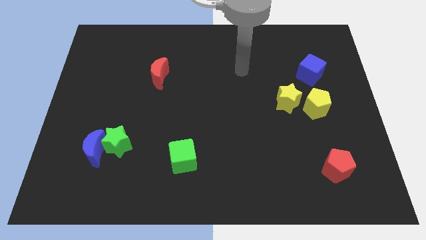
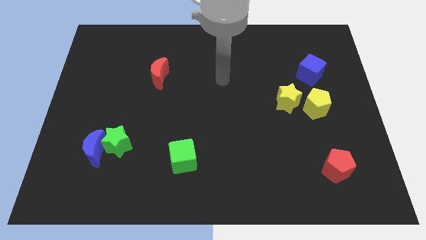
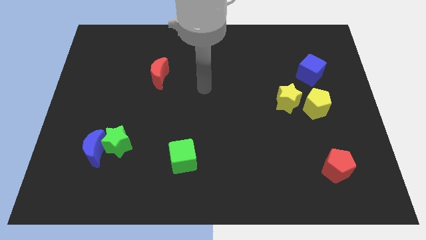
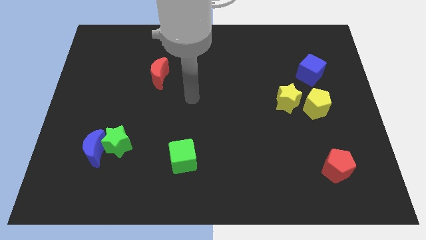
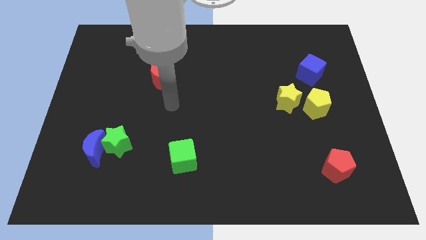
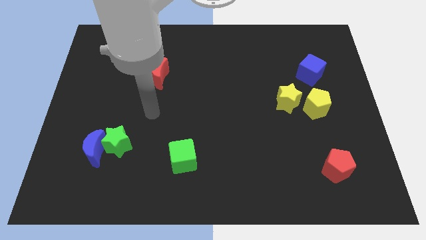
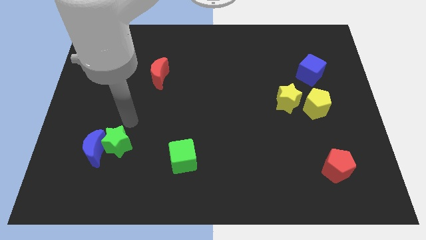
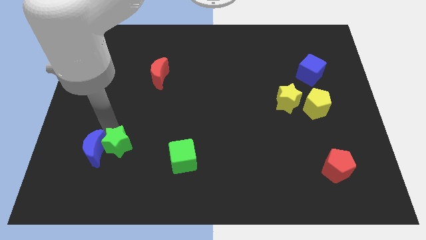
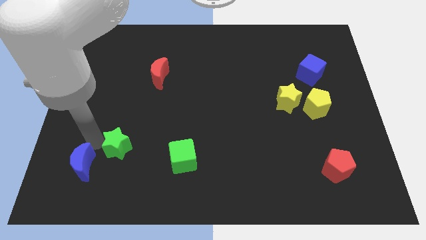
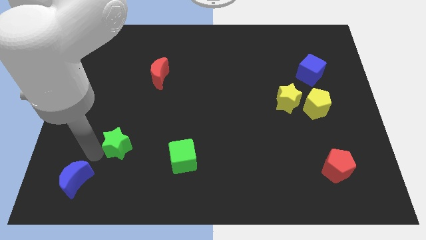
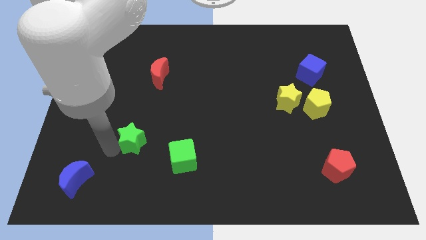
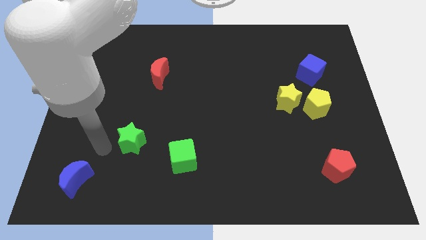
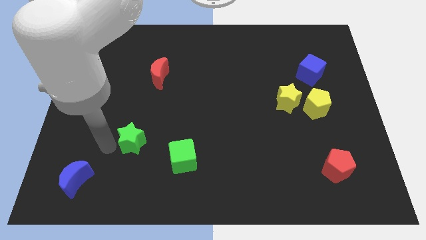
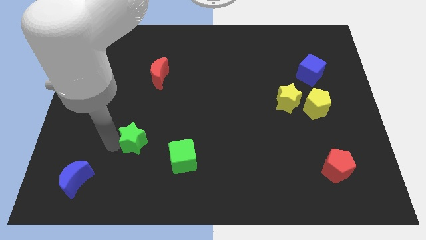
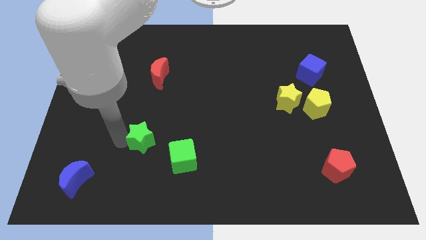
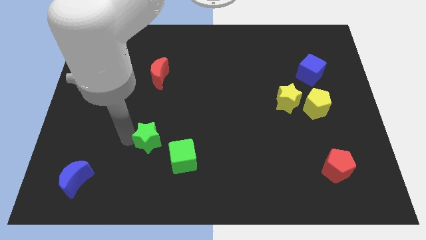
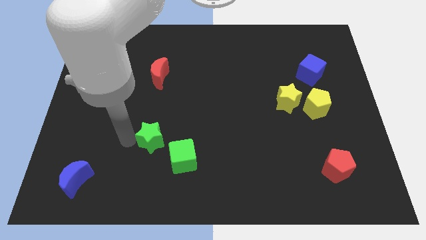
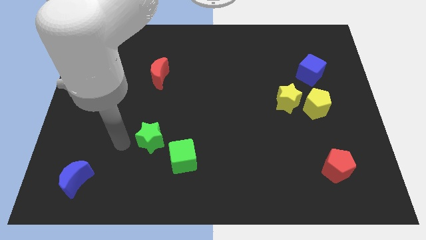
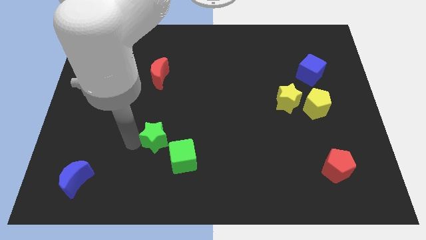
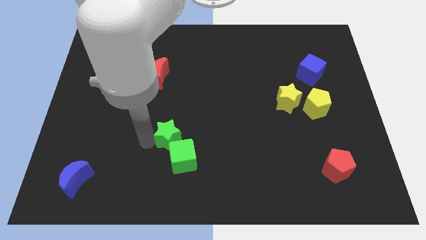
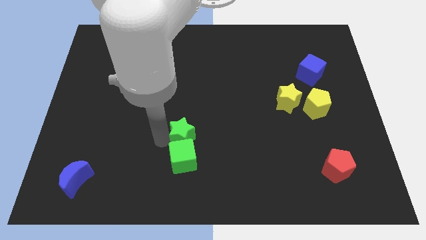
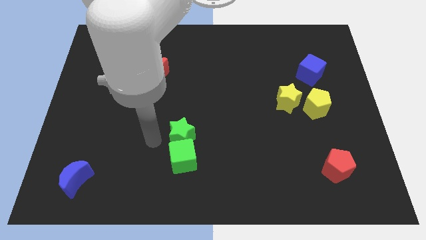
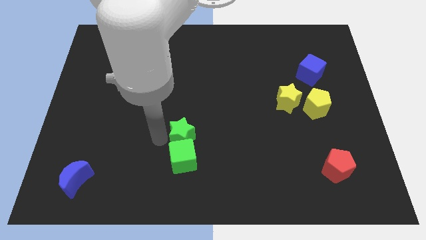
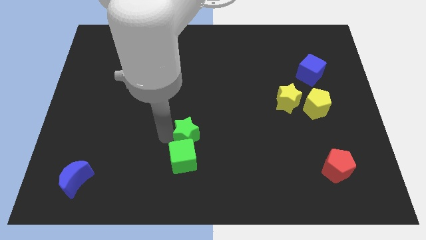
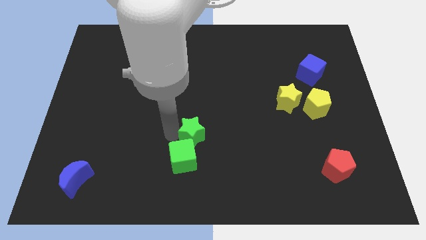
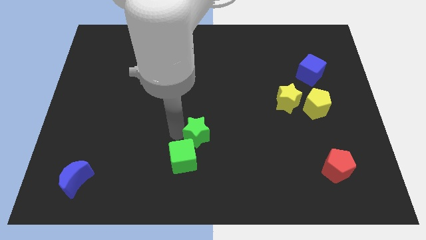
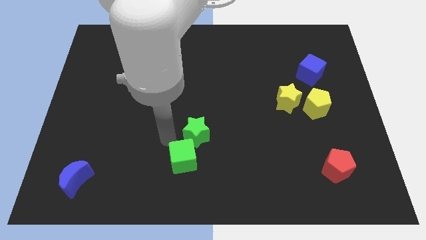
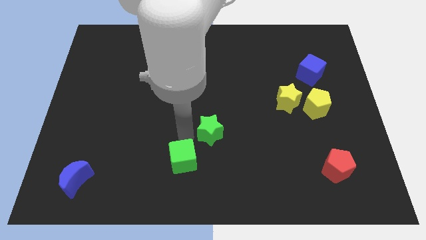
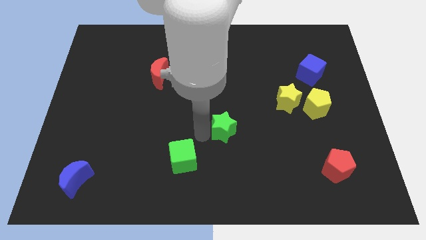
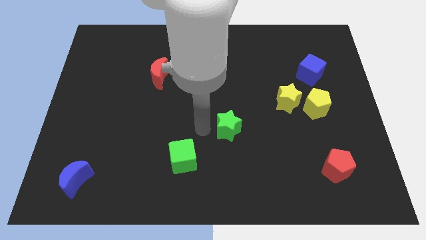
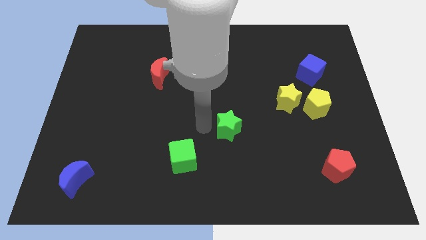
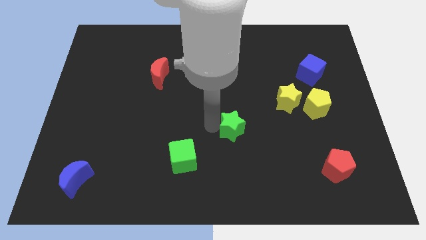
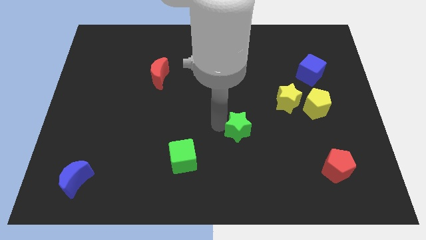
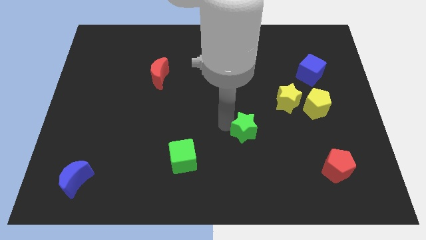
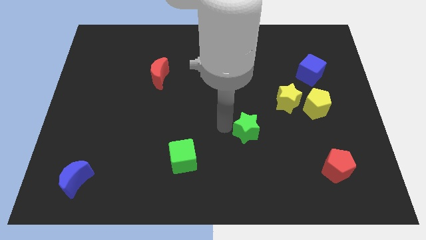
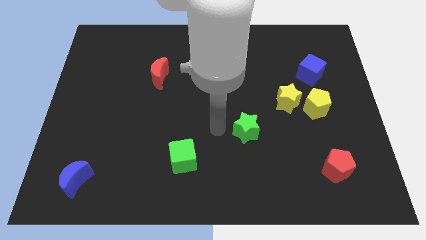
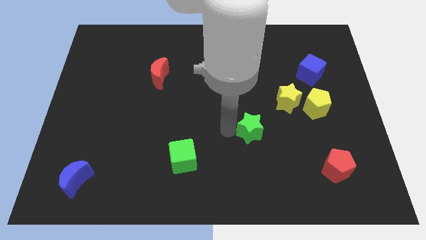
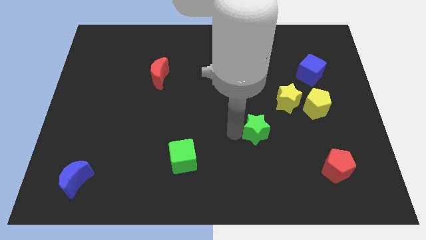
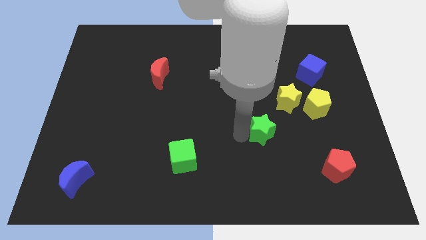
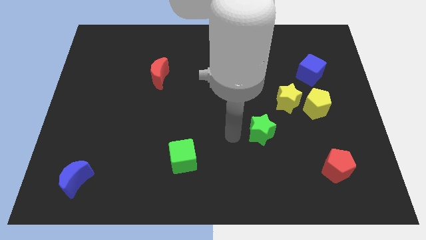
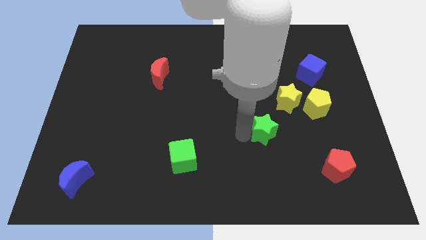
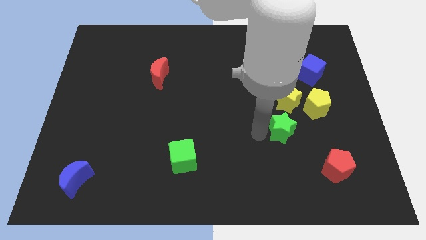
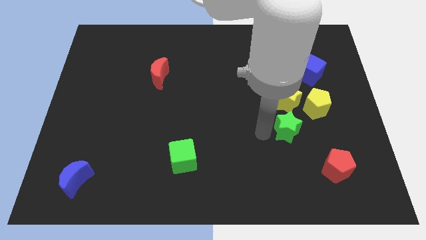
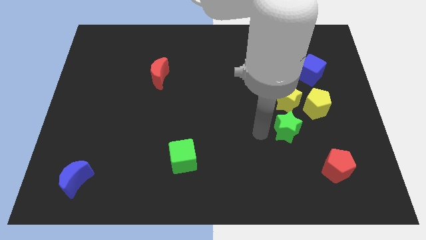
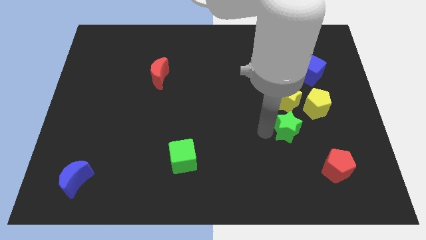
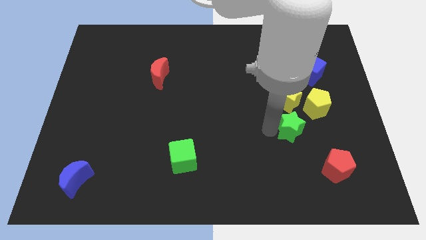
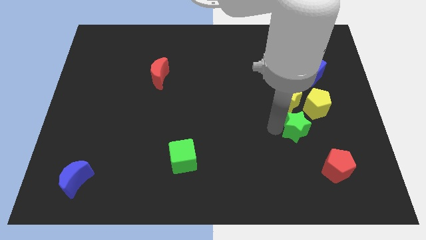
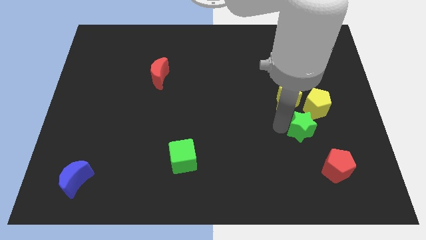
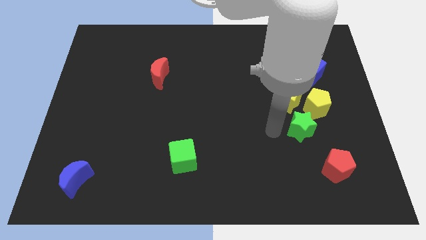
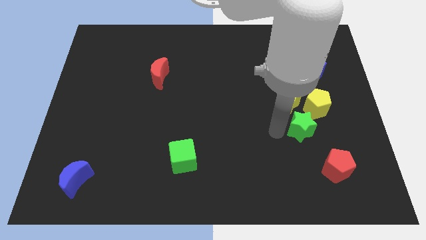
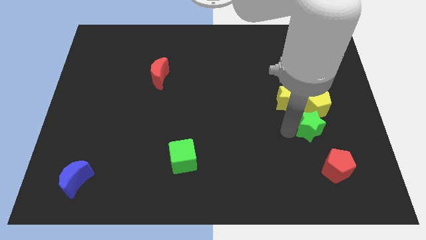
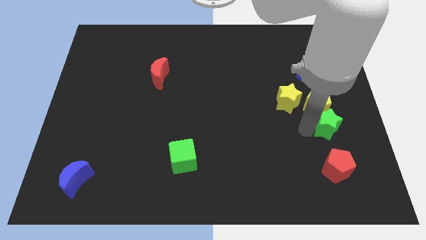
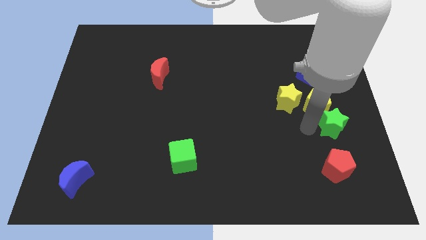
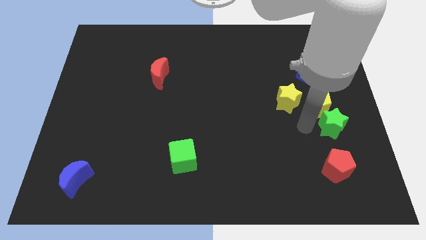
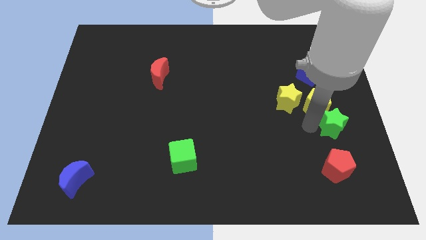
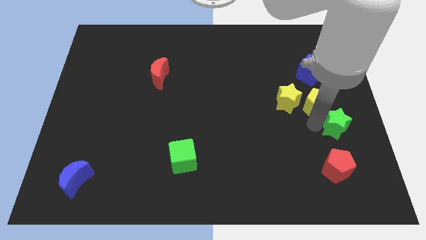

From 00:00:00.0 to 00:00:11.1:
slide the green star to the right side

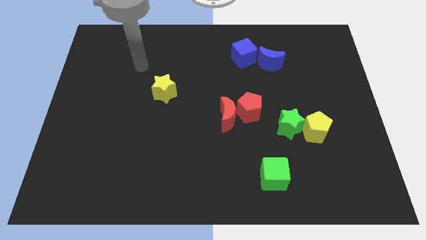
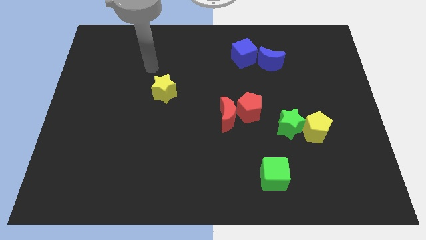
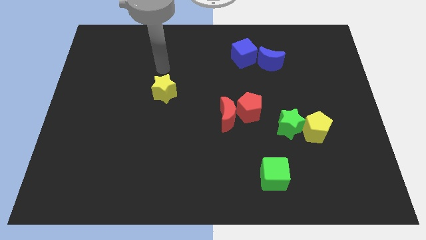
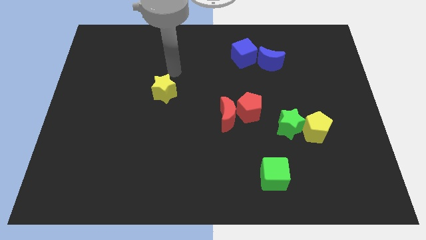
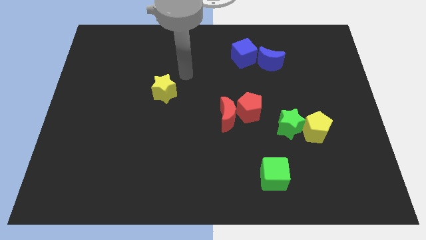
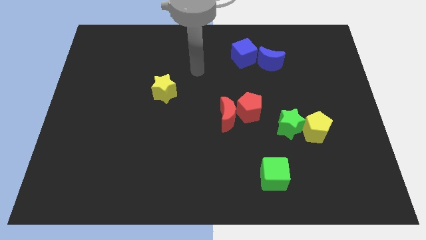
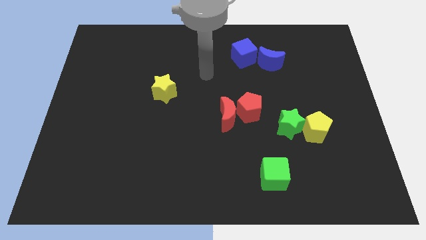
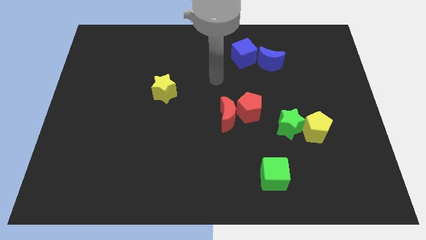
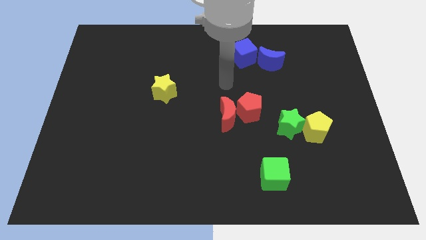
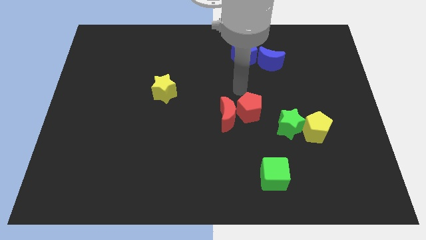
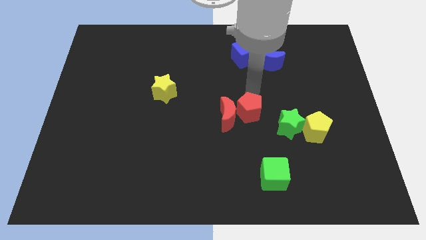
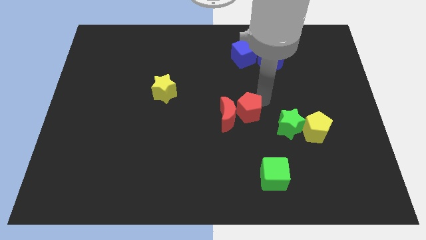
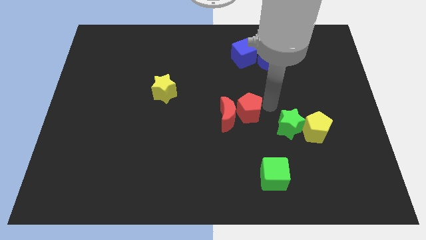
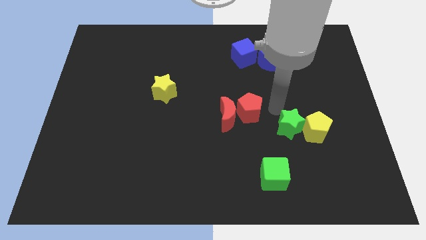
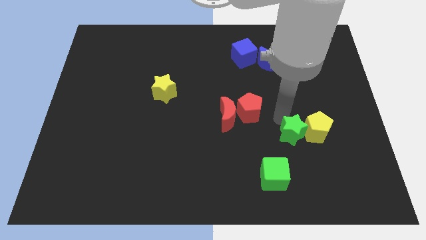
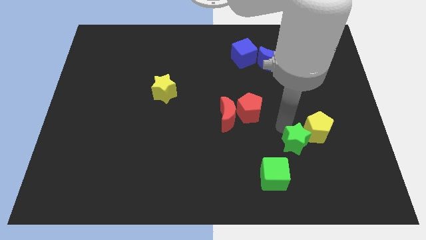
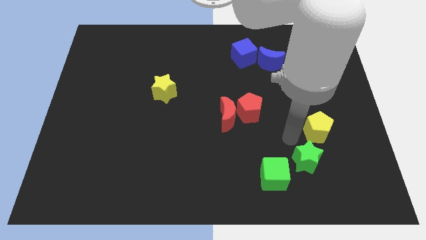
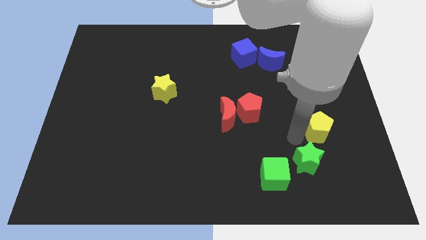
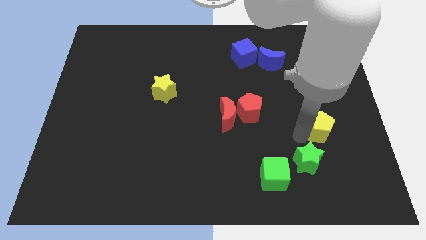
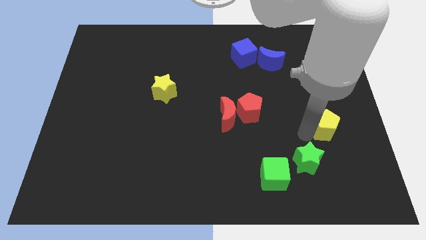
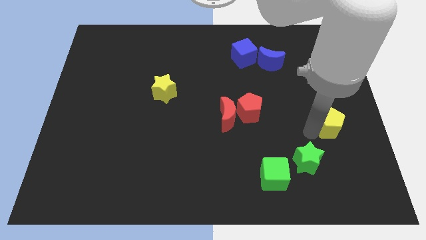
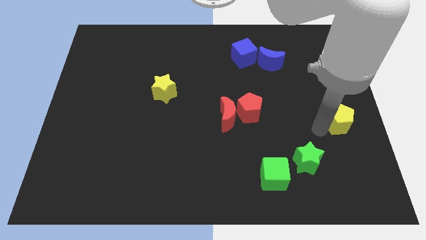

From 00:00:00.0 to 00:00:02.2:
move the yellow pentagon to the center right
